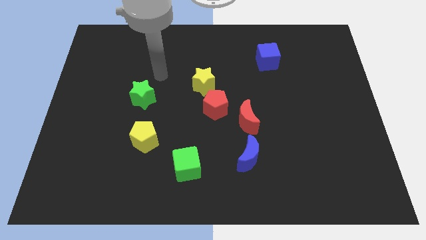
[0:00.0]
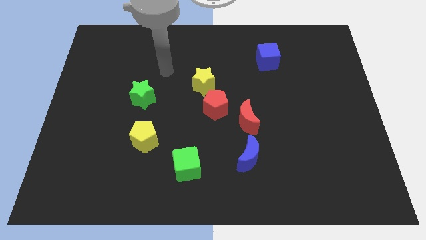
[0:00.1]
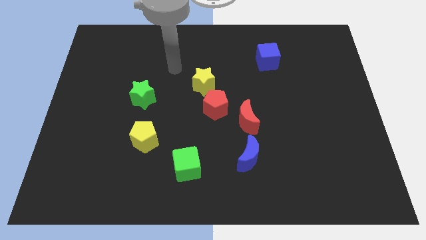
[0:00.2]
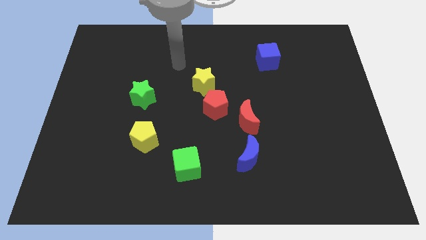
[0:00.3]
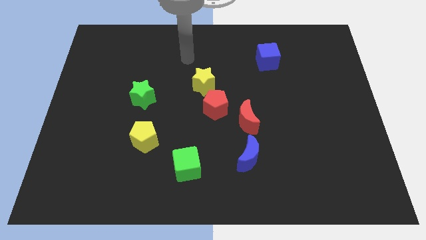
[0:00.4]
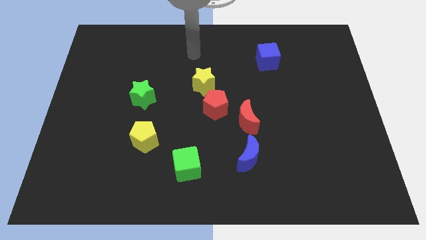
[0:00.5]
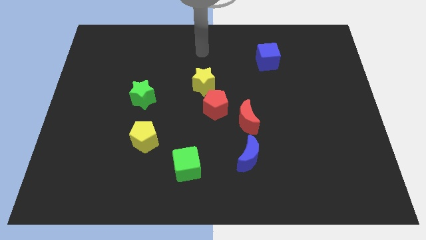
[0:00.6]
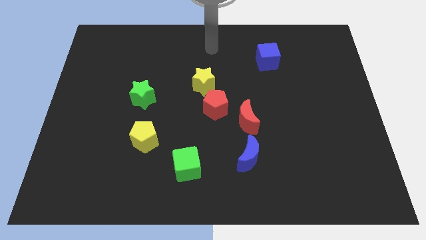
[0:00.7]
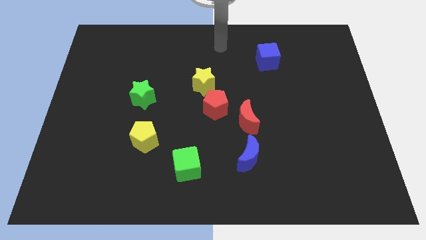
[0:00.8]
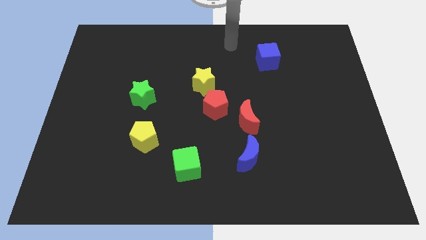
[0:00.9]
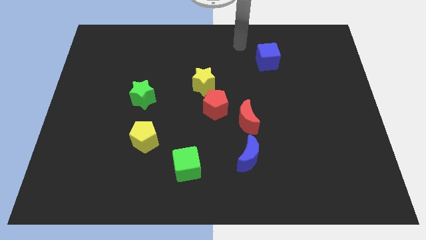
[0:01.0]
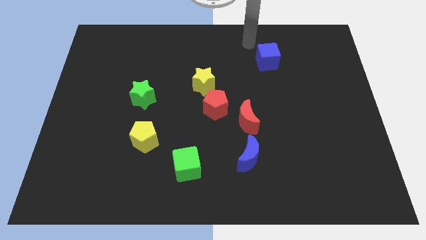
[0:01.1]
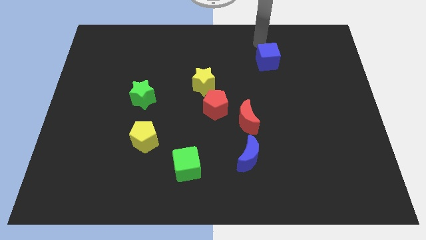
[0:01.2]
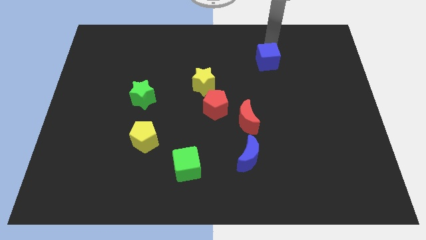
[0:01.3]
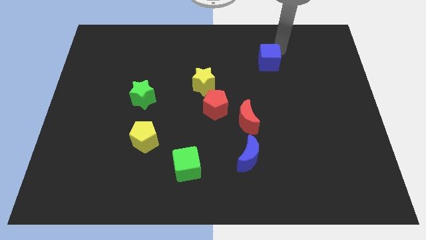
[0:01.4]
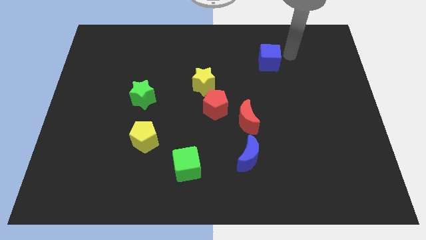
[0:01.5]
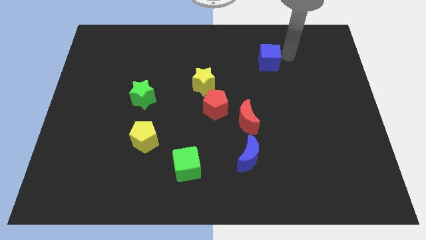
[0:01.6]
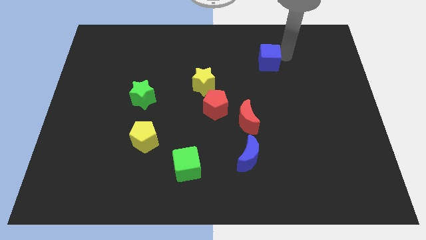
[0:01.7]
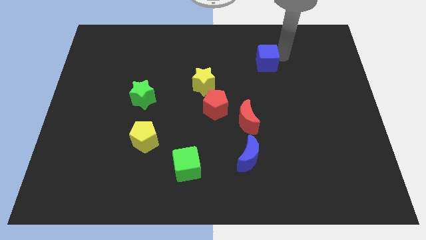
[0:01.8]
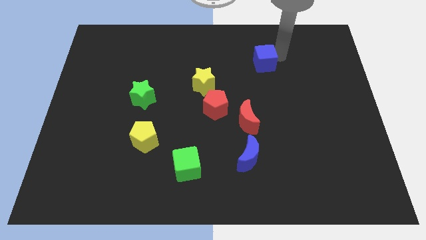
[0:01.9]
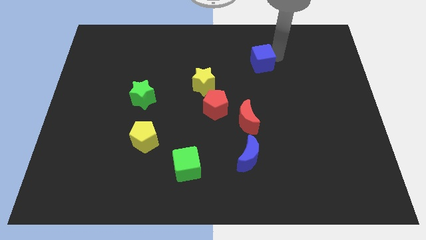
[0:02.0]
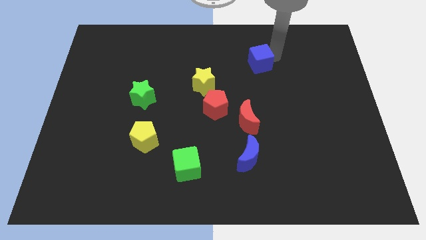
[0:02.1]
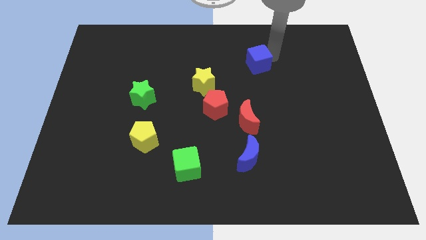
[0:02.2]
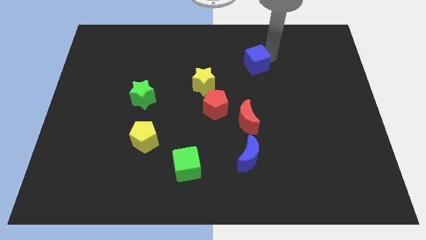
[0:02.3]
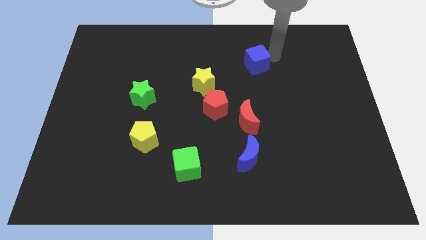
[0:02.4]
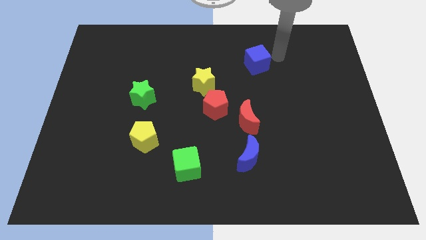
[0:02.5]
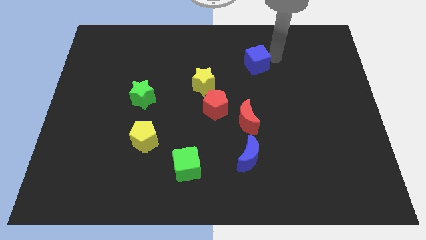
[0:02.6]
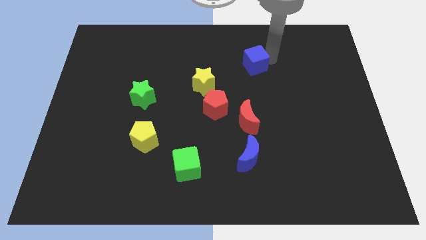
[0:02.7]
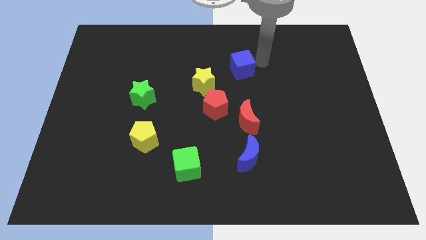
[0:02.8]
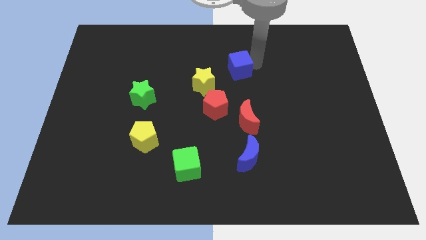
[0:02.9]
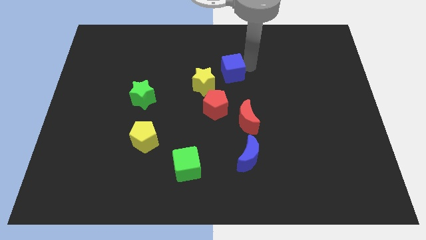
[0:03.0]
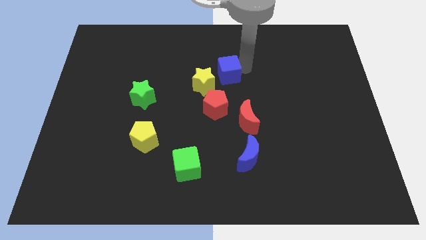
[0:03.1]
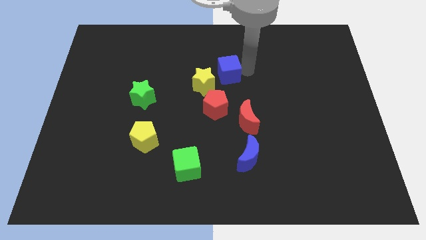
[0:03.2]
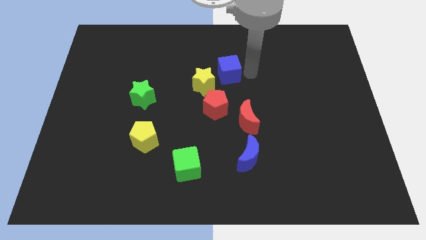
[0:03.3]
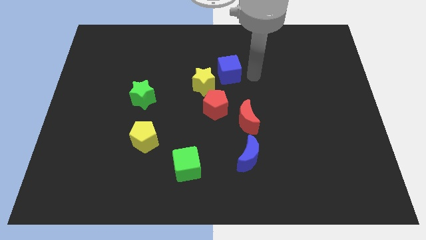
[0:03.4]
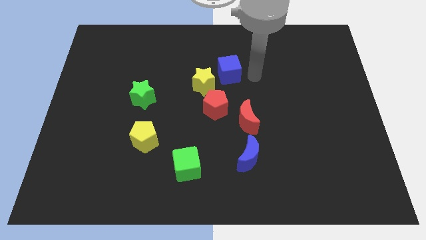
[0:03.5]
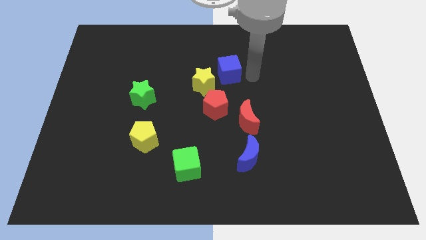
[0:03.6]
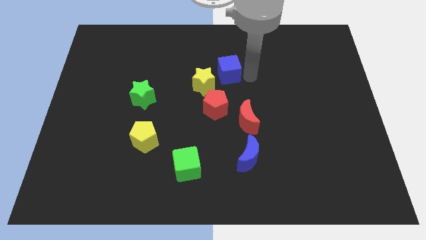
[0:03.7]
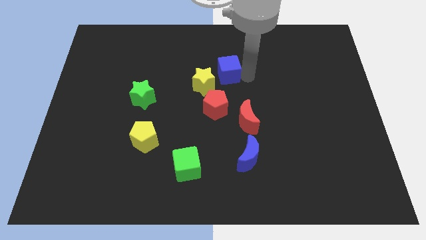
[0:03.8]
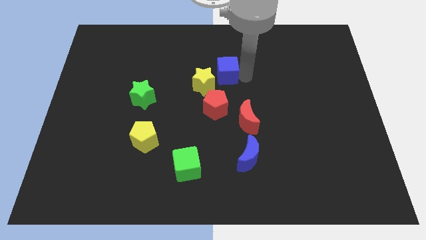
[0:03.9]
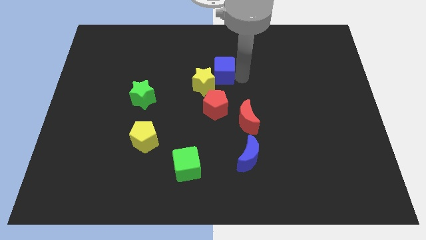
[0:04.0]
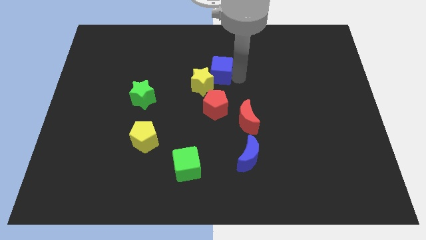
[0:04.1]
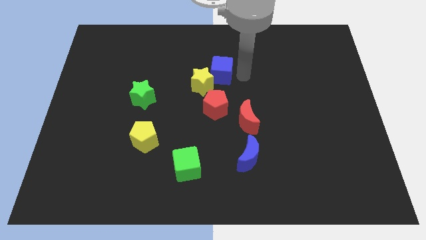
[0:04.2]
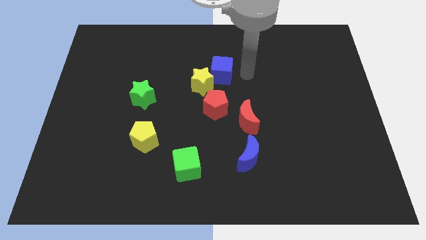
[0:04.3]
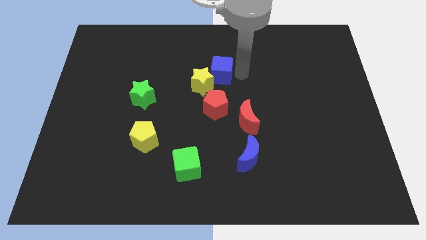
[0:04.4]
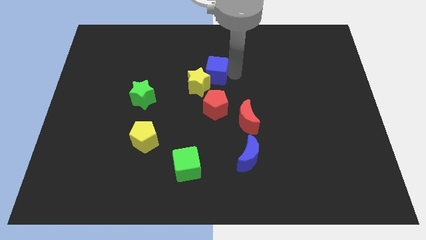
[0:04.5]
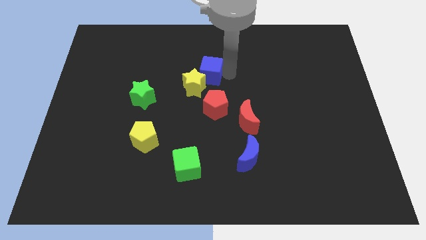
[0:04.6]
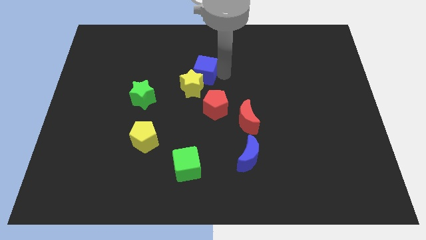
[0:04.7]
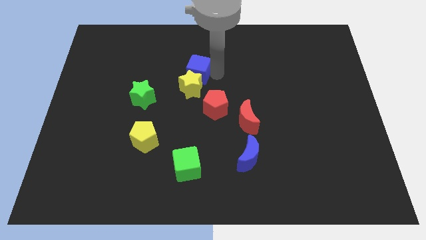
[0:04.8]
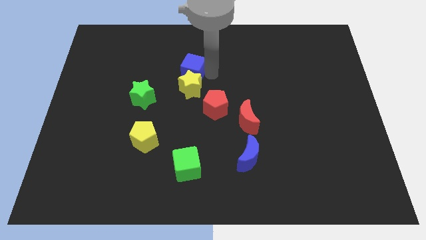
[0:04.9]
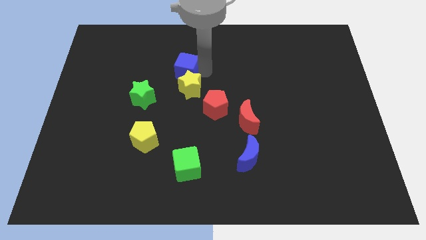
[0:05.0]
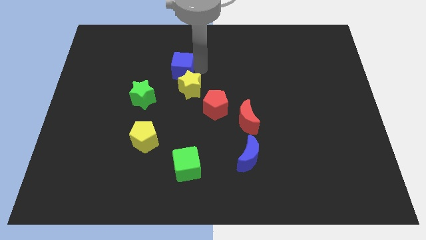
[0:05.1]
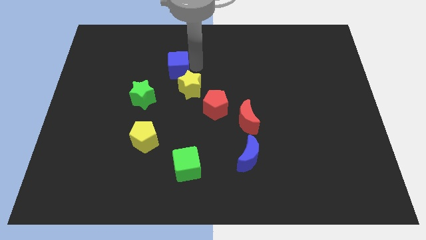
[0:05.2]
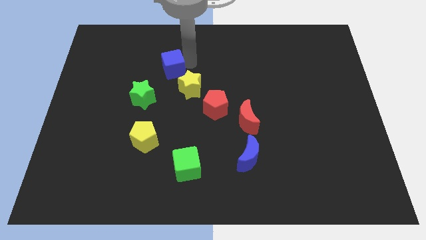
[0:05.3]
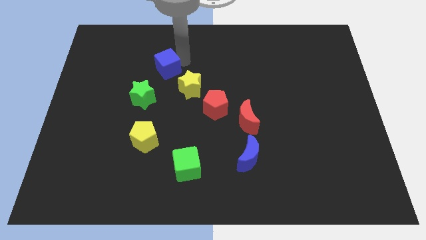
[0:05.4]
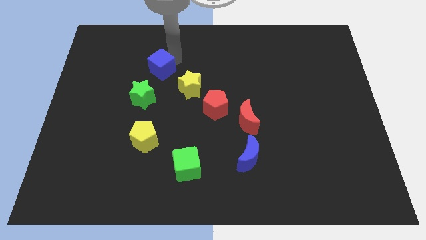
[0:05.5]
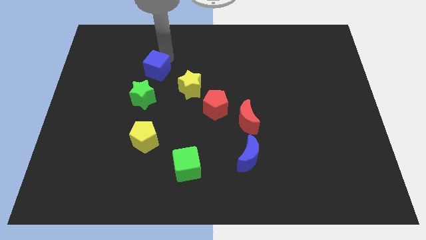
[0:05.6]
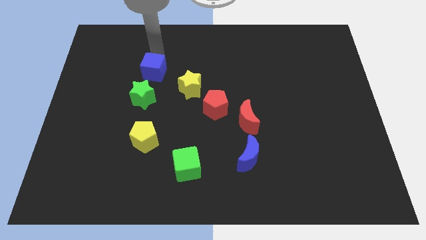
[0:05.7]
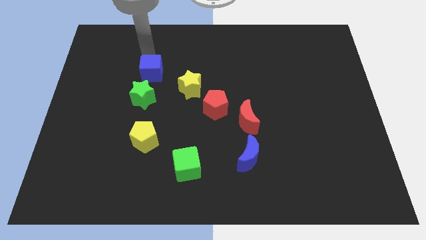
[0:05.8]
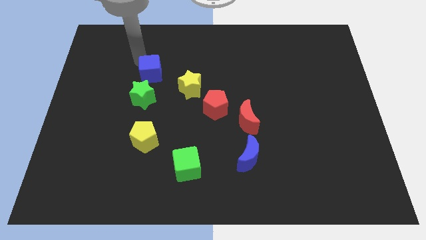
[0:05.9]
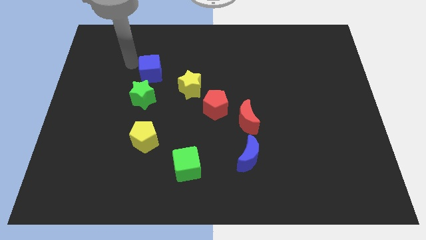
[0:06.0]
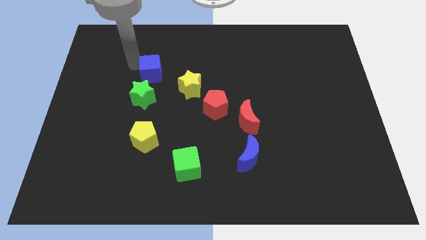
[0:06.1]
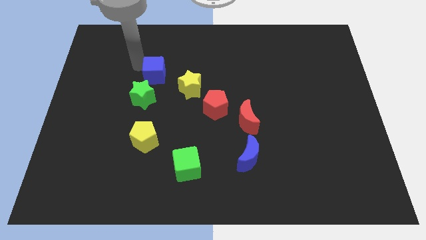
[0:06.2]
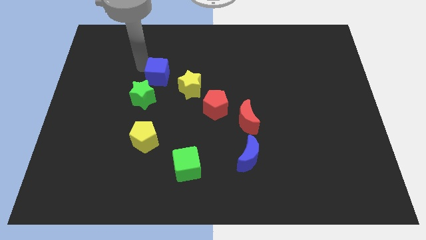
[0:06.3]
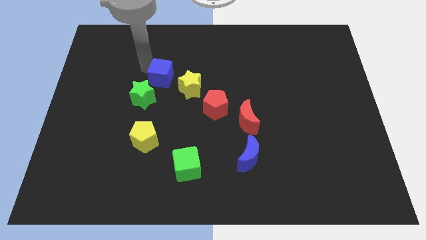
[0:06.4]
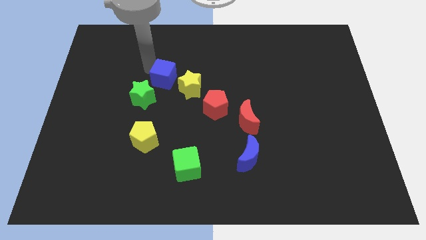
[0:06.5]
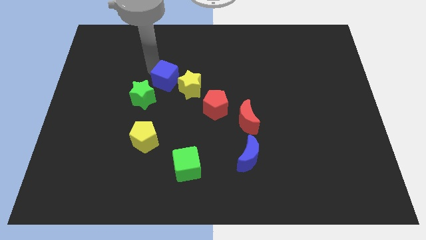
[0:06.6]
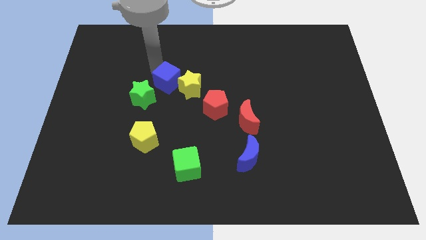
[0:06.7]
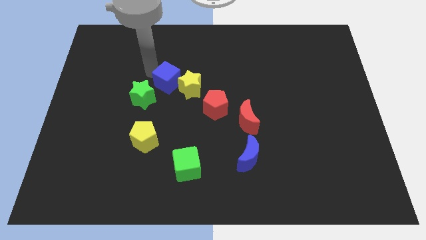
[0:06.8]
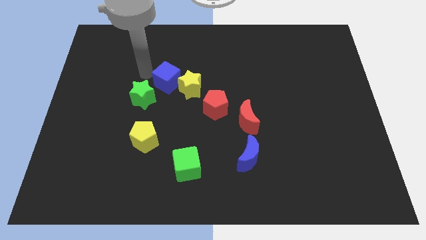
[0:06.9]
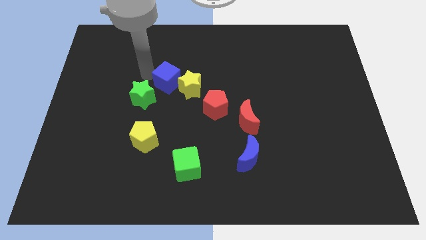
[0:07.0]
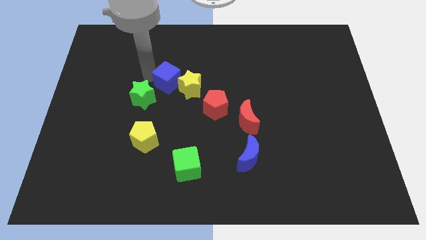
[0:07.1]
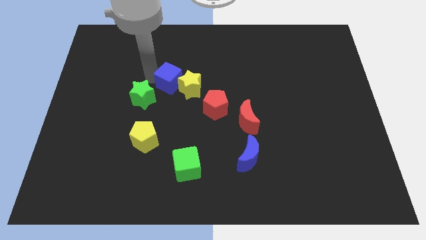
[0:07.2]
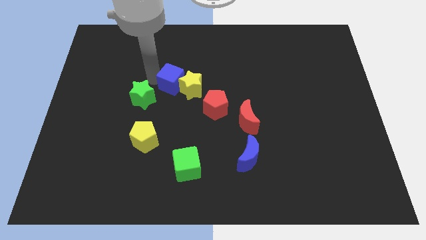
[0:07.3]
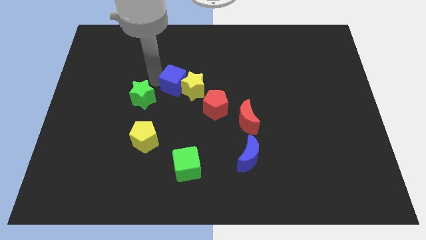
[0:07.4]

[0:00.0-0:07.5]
push the blue cube to the top left side of the red pentagon
